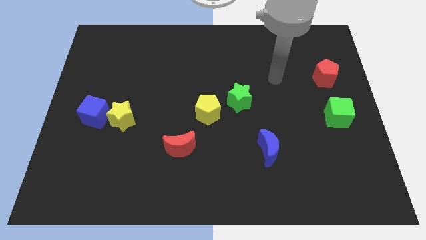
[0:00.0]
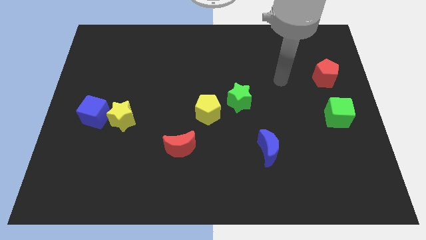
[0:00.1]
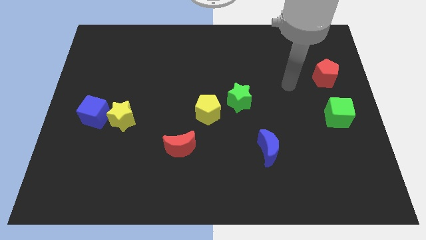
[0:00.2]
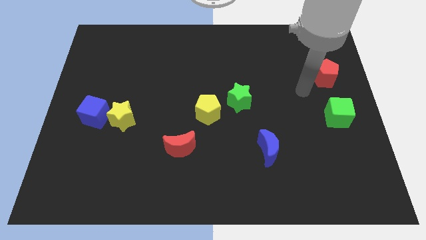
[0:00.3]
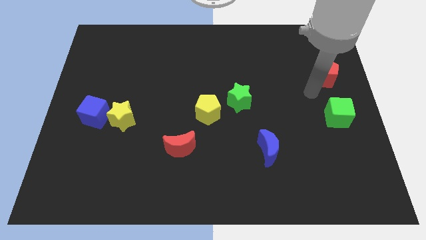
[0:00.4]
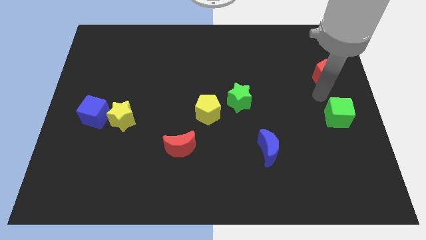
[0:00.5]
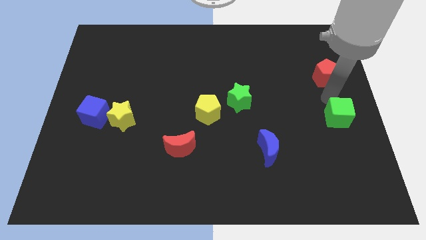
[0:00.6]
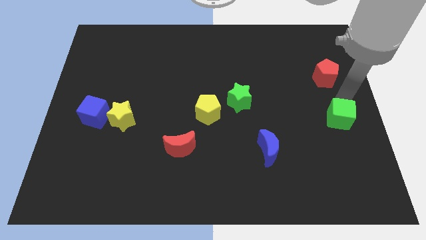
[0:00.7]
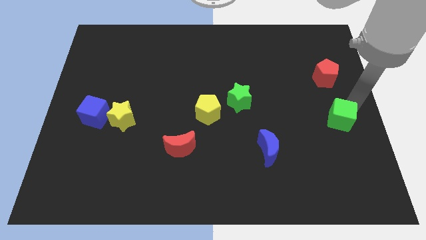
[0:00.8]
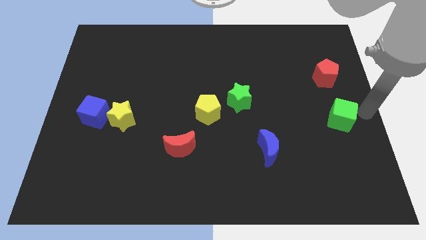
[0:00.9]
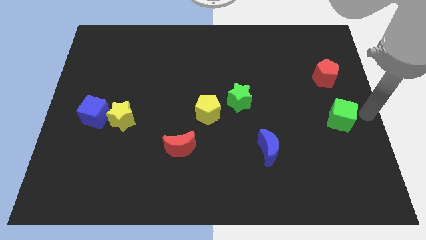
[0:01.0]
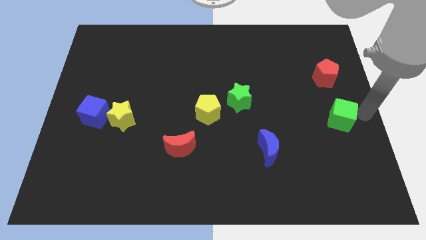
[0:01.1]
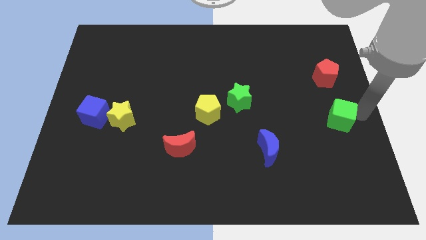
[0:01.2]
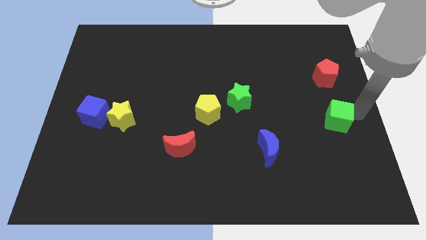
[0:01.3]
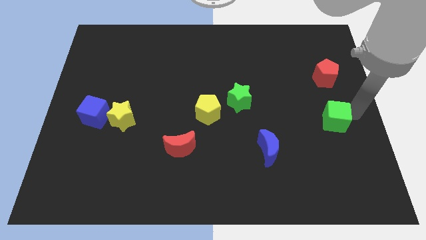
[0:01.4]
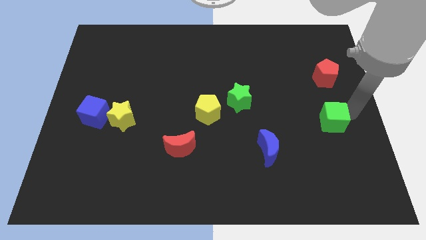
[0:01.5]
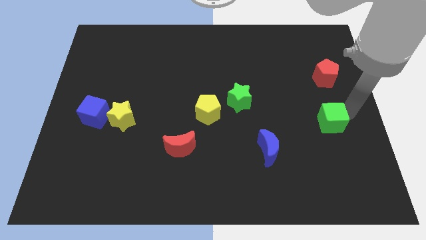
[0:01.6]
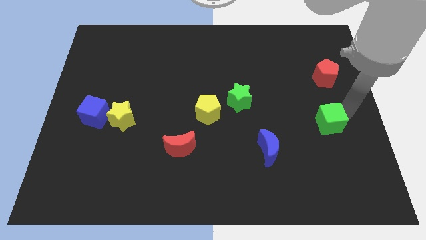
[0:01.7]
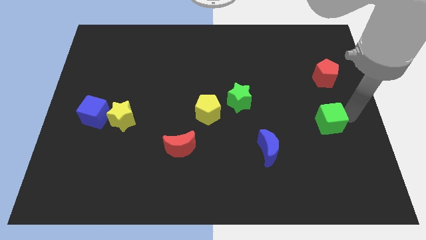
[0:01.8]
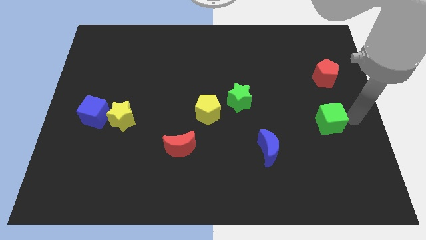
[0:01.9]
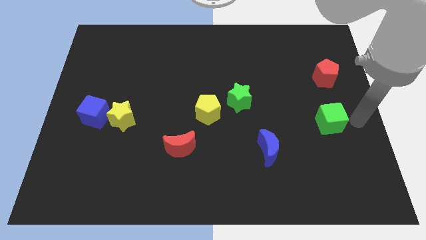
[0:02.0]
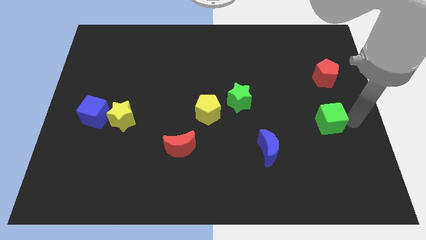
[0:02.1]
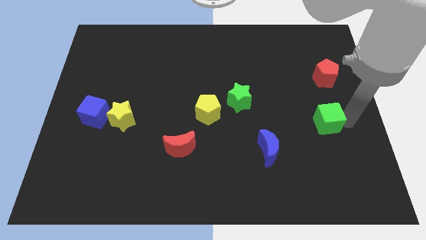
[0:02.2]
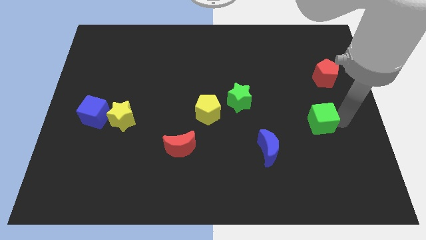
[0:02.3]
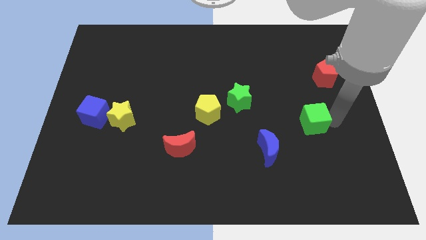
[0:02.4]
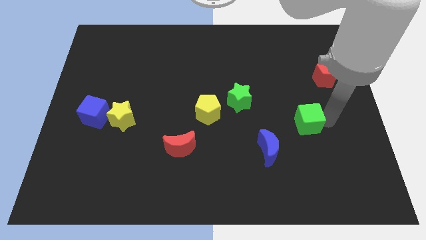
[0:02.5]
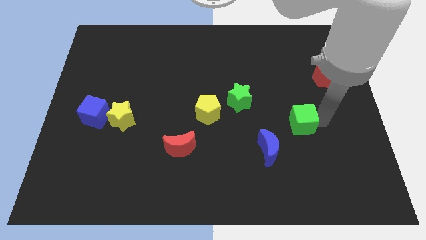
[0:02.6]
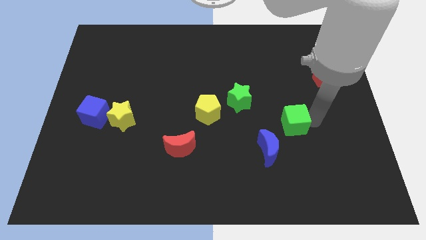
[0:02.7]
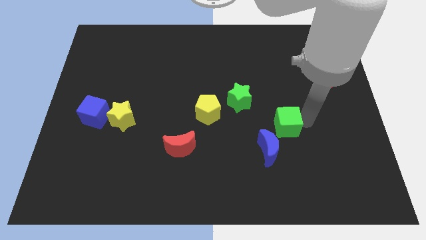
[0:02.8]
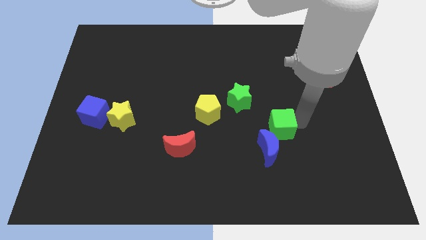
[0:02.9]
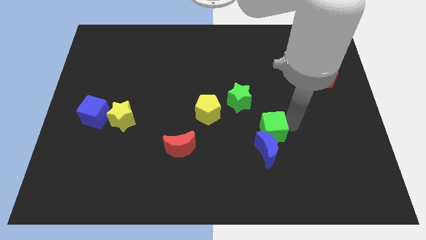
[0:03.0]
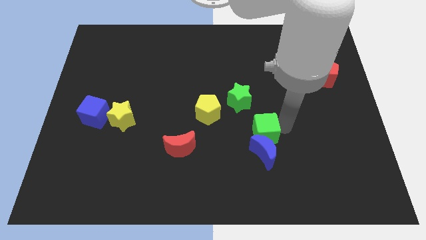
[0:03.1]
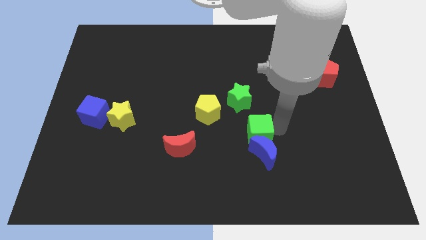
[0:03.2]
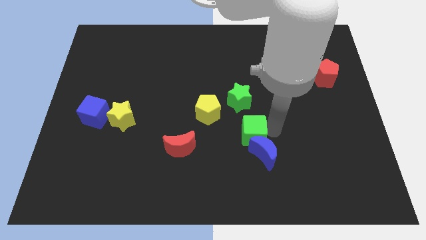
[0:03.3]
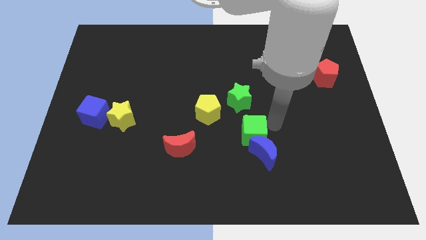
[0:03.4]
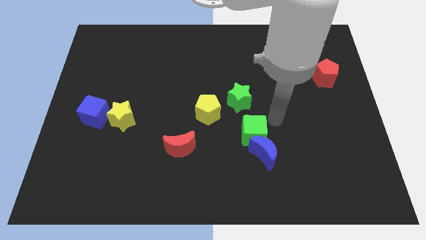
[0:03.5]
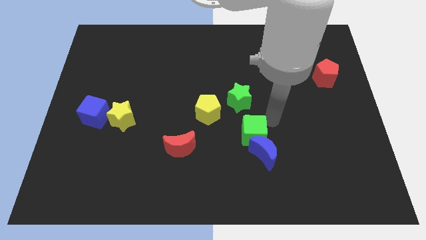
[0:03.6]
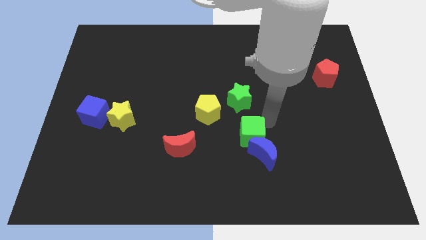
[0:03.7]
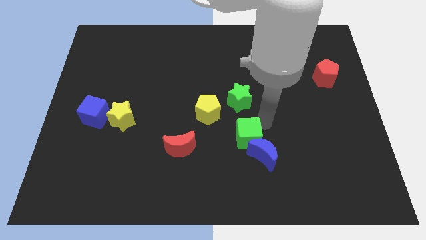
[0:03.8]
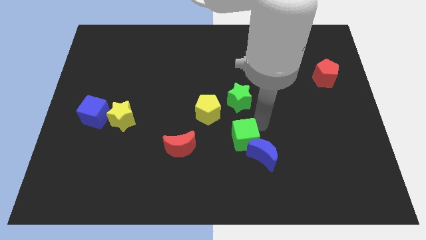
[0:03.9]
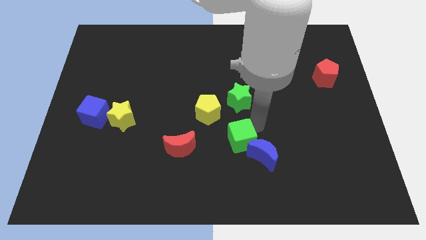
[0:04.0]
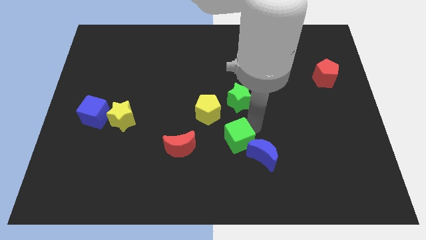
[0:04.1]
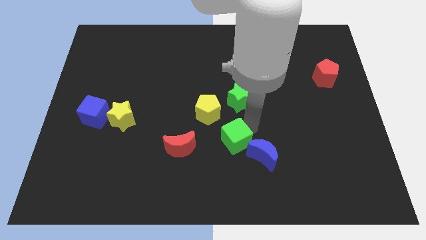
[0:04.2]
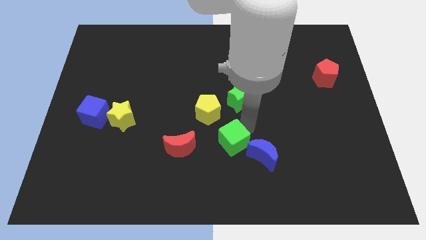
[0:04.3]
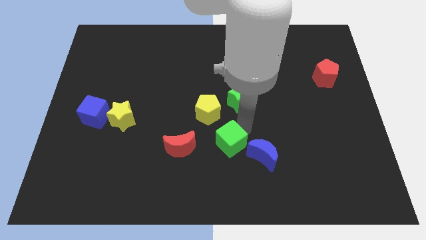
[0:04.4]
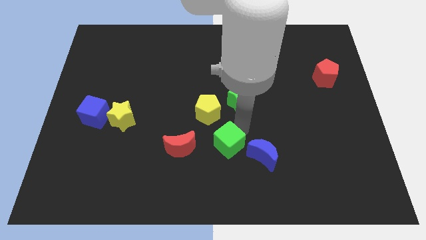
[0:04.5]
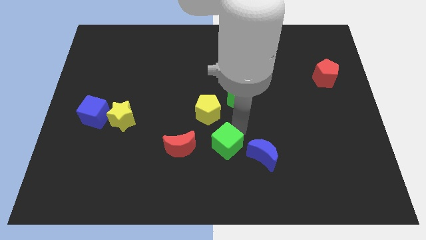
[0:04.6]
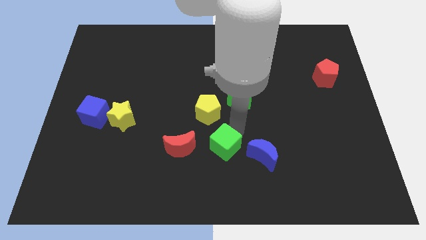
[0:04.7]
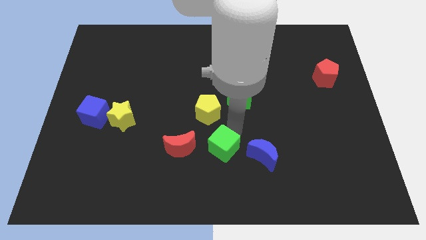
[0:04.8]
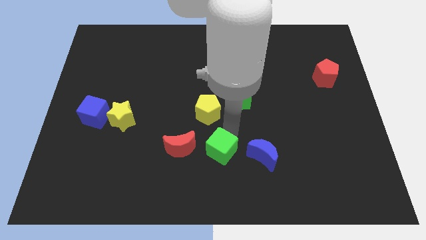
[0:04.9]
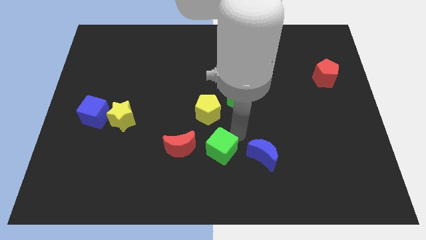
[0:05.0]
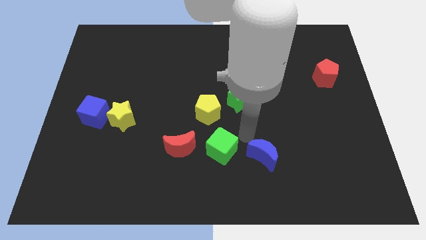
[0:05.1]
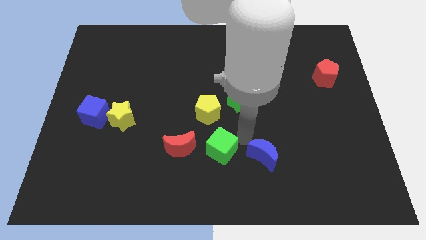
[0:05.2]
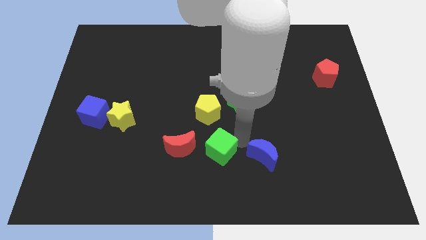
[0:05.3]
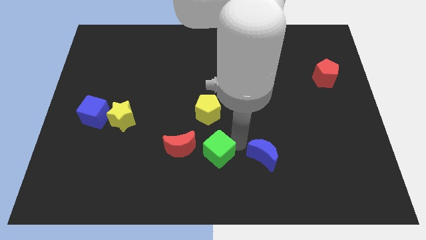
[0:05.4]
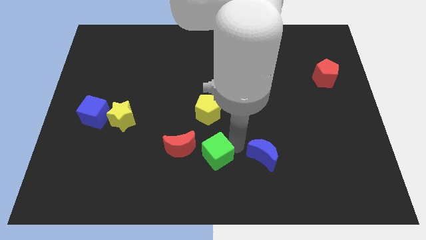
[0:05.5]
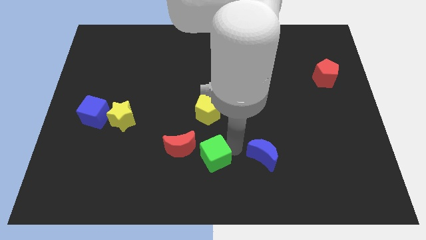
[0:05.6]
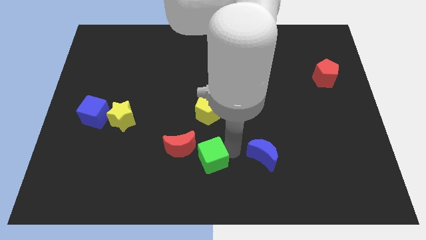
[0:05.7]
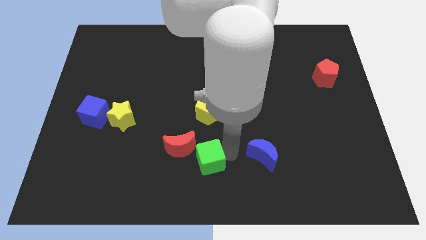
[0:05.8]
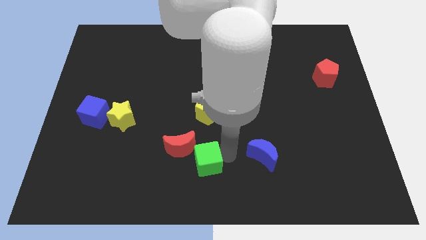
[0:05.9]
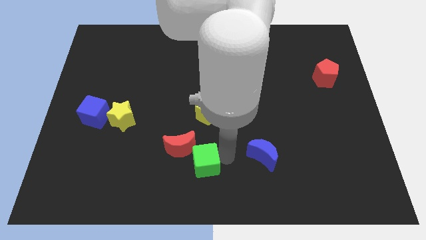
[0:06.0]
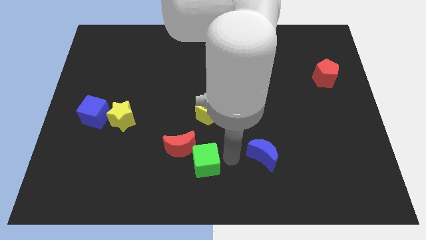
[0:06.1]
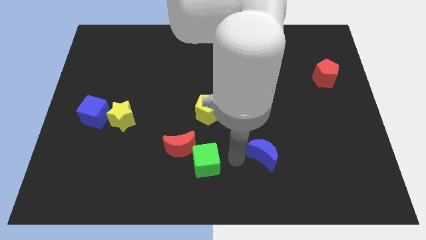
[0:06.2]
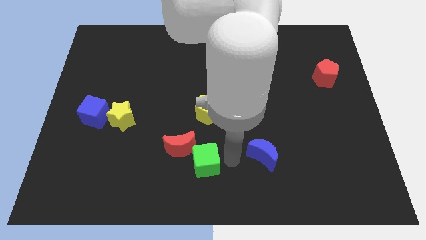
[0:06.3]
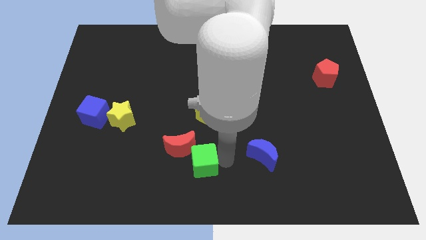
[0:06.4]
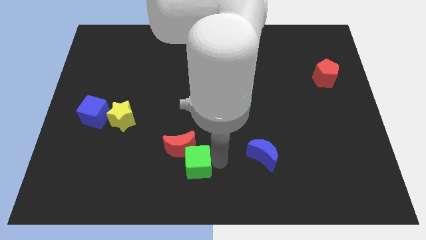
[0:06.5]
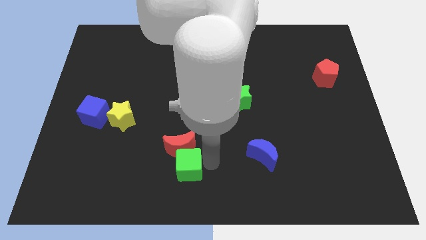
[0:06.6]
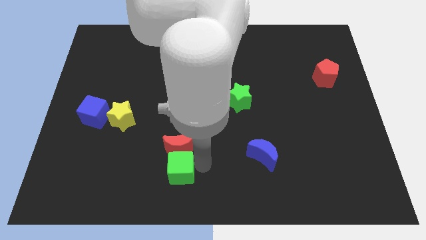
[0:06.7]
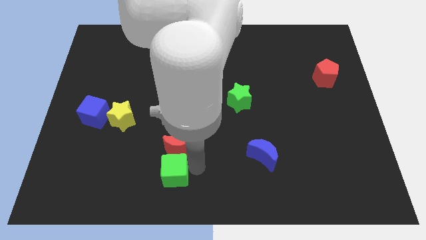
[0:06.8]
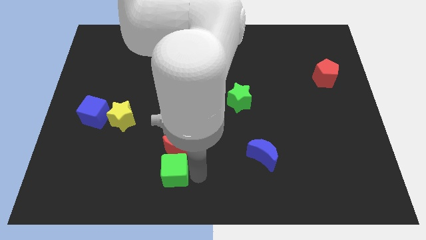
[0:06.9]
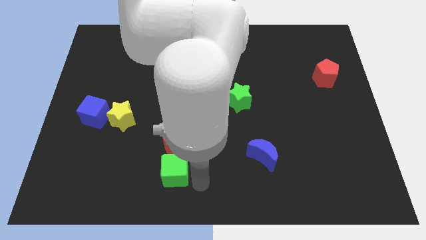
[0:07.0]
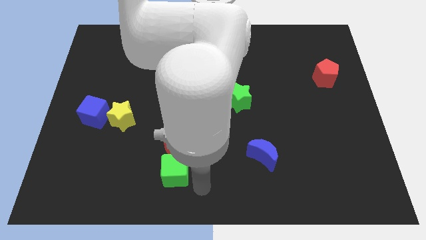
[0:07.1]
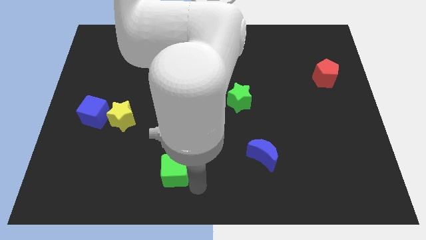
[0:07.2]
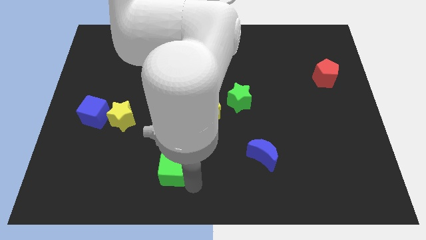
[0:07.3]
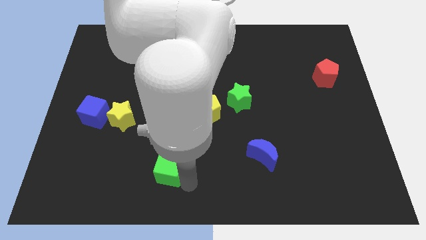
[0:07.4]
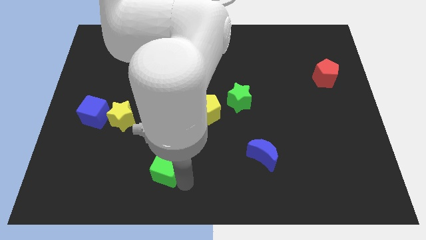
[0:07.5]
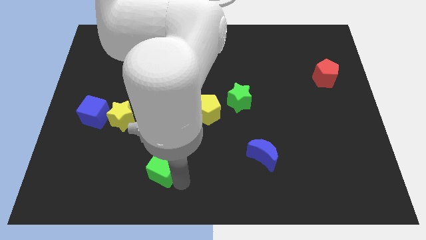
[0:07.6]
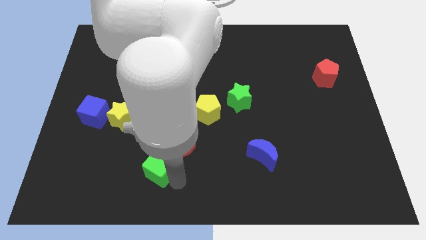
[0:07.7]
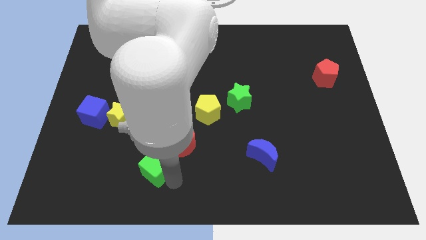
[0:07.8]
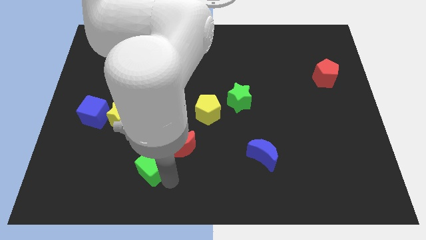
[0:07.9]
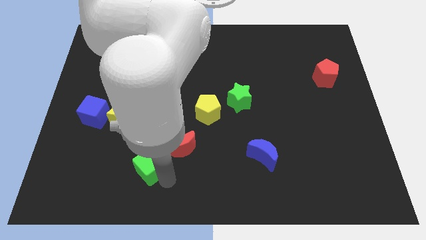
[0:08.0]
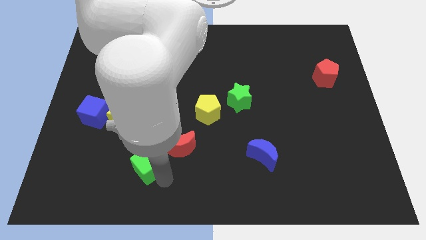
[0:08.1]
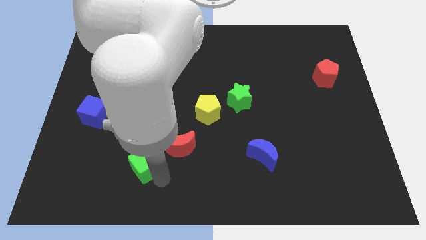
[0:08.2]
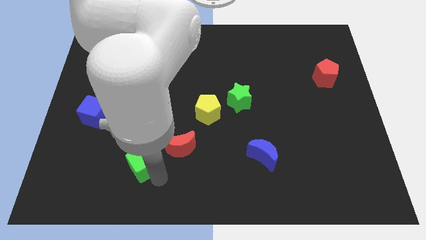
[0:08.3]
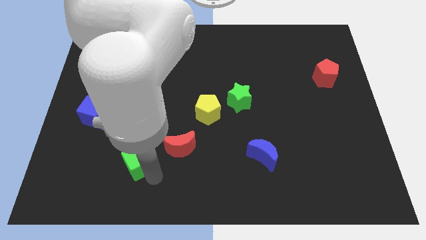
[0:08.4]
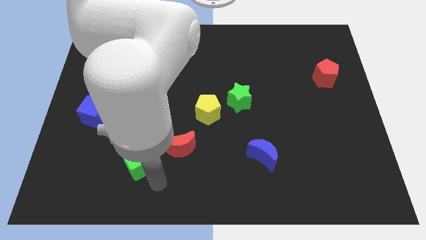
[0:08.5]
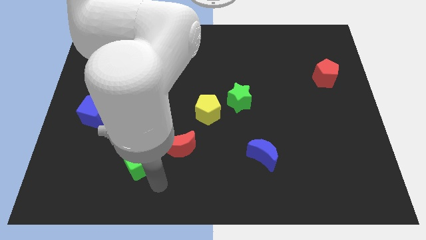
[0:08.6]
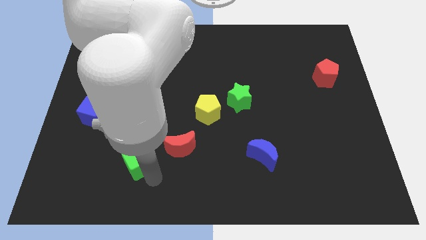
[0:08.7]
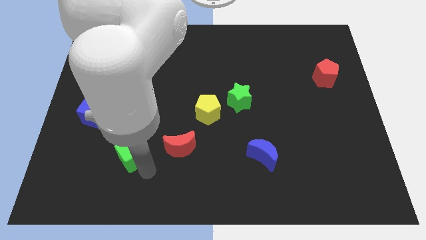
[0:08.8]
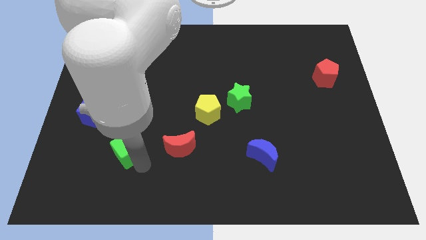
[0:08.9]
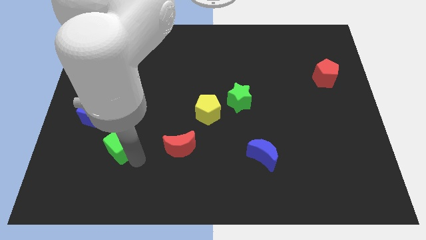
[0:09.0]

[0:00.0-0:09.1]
move the green cube to the bottom right side of the blue cube
